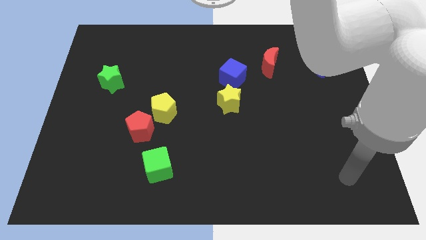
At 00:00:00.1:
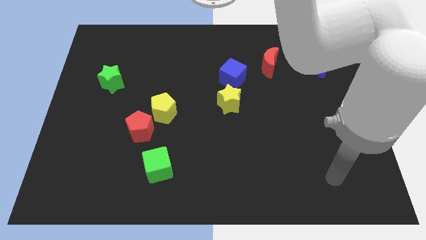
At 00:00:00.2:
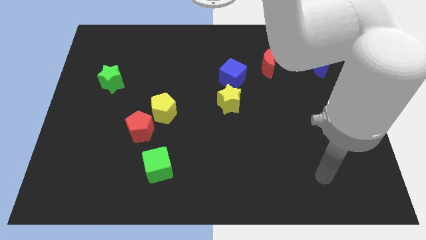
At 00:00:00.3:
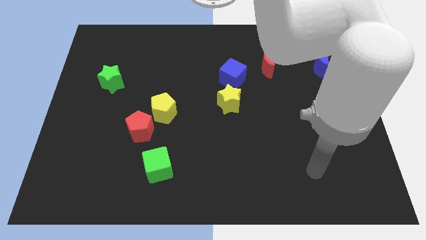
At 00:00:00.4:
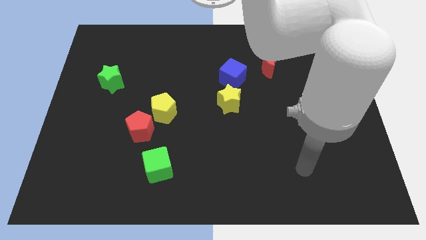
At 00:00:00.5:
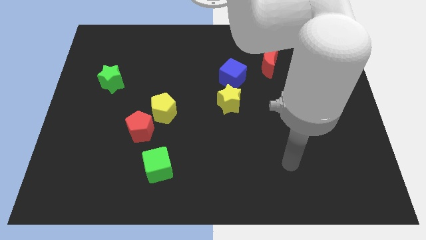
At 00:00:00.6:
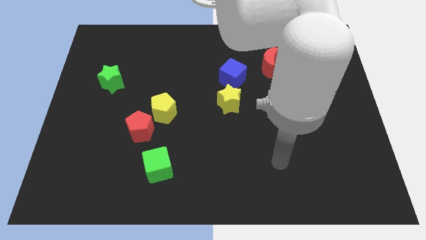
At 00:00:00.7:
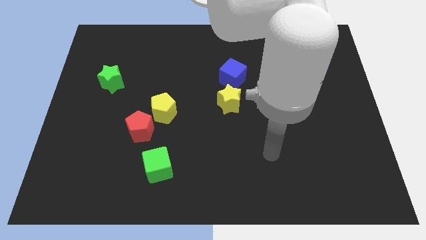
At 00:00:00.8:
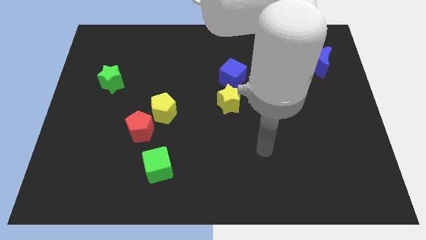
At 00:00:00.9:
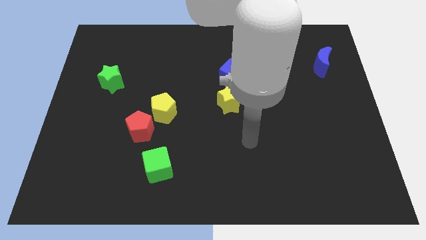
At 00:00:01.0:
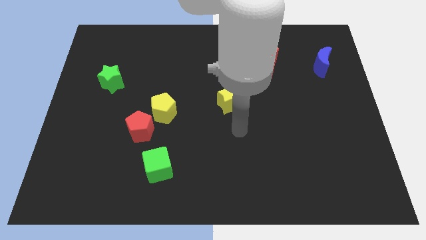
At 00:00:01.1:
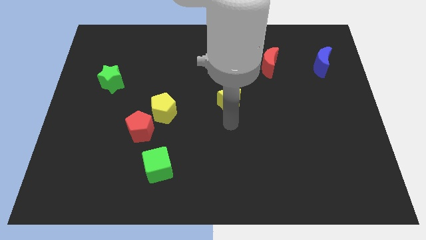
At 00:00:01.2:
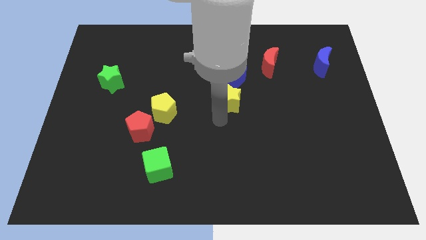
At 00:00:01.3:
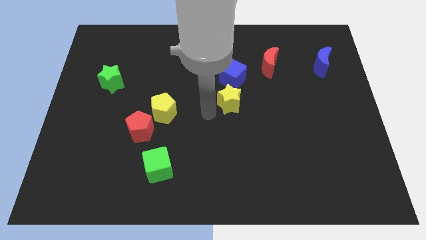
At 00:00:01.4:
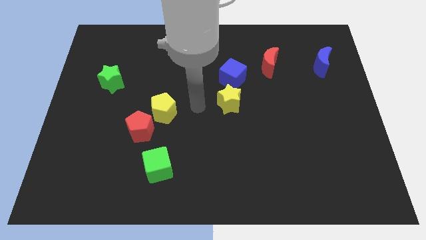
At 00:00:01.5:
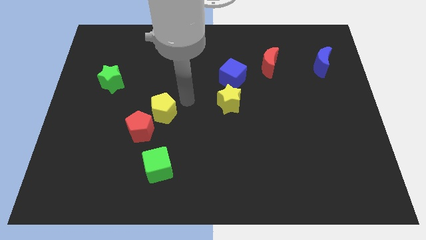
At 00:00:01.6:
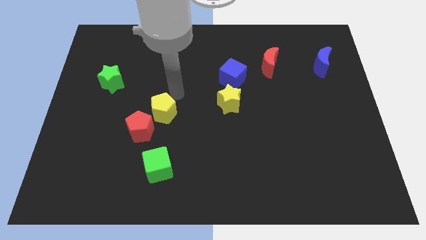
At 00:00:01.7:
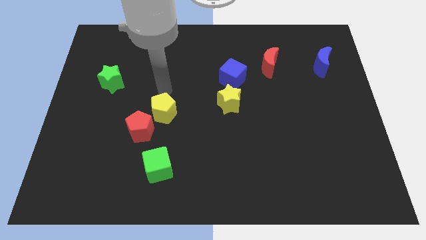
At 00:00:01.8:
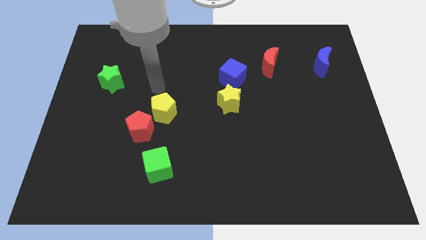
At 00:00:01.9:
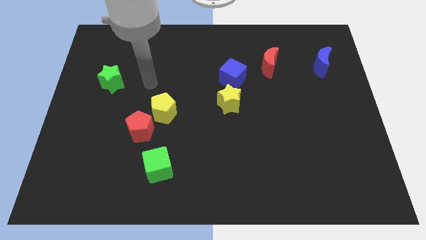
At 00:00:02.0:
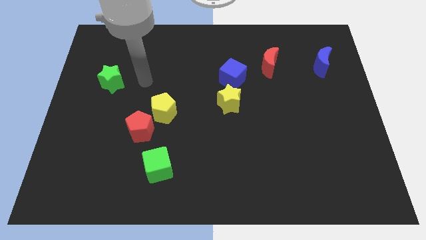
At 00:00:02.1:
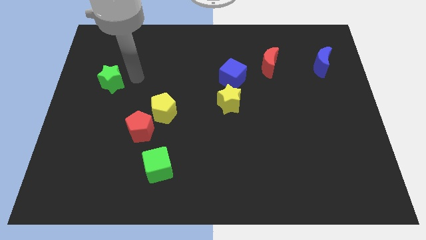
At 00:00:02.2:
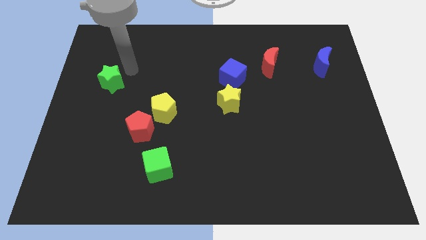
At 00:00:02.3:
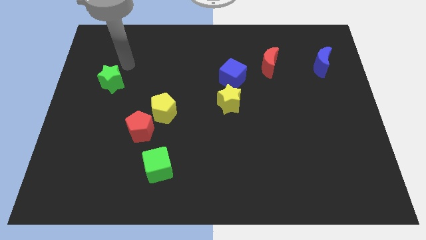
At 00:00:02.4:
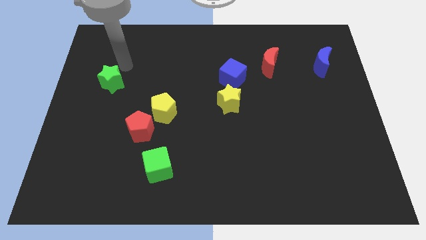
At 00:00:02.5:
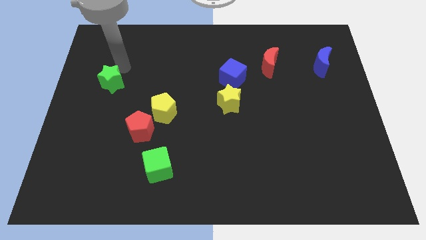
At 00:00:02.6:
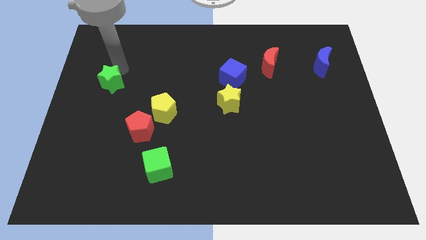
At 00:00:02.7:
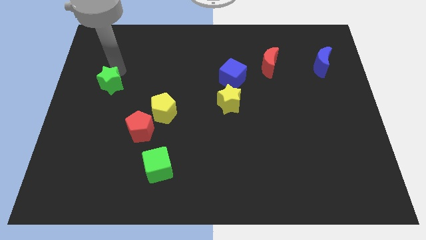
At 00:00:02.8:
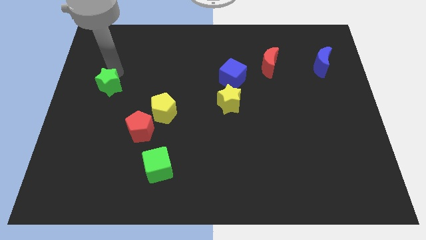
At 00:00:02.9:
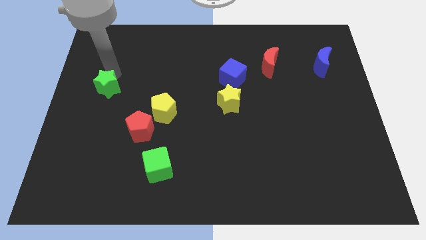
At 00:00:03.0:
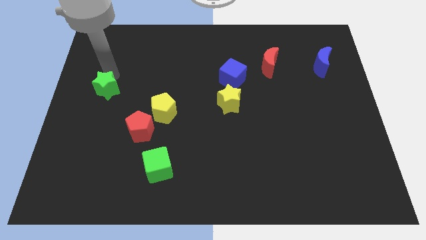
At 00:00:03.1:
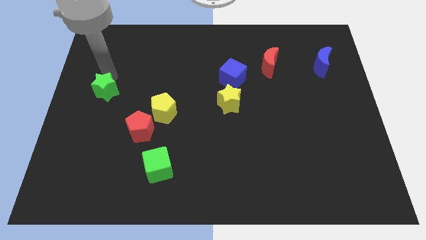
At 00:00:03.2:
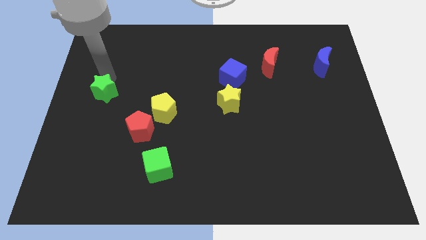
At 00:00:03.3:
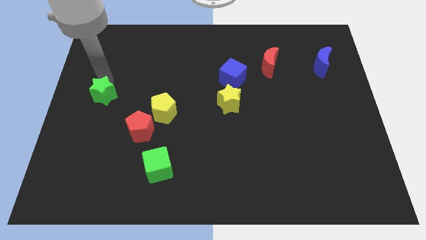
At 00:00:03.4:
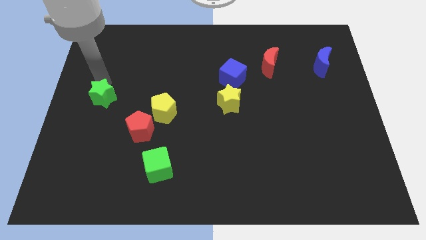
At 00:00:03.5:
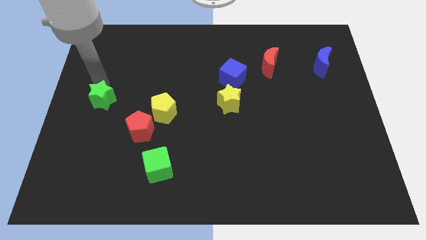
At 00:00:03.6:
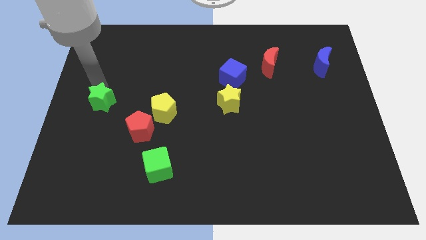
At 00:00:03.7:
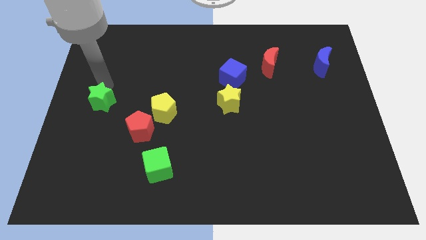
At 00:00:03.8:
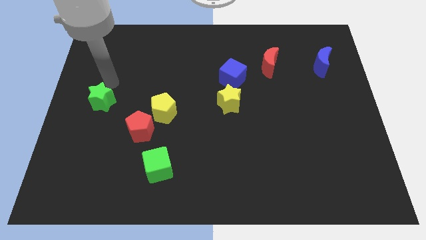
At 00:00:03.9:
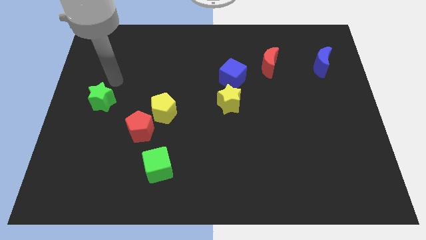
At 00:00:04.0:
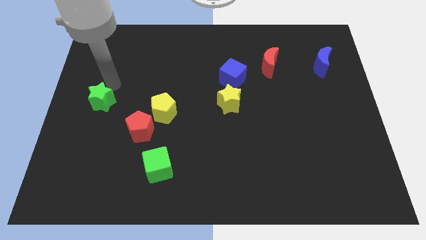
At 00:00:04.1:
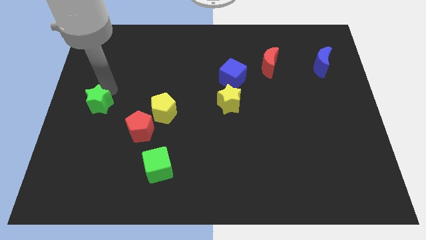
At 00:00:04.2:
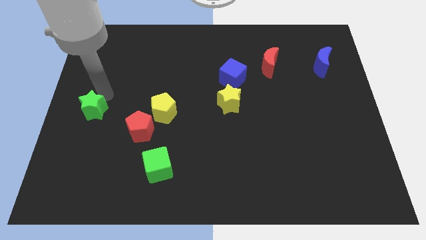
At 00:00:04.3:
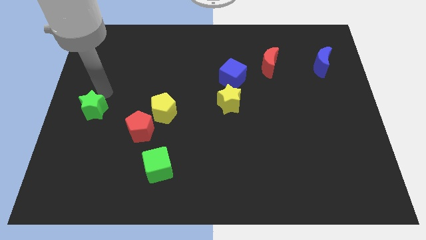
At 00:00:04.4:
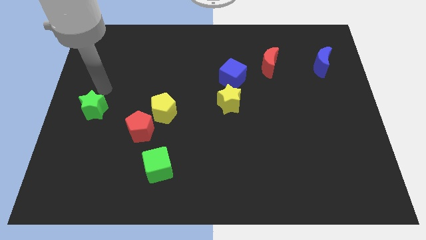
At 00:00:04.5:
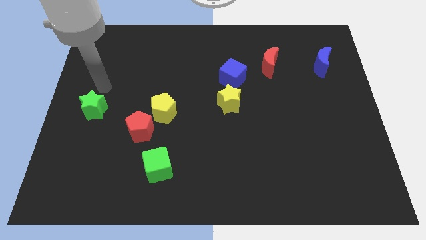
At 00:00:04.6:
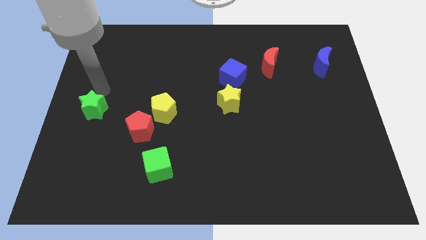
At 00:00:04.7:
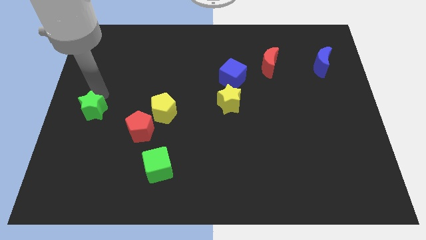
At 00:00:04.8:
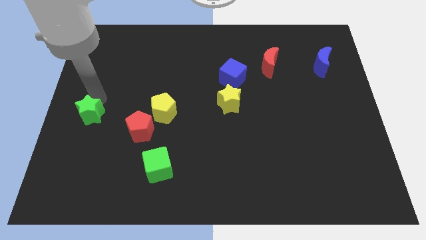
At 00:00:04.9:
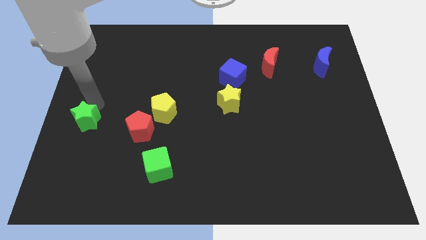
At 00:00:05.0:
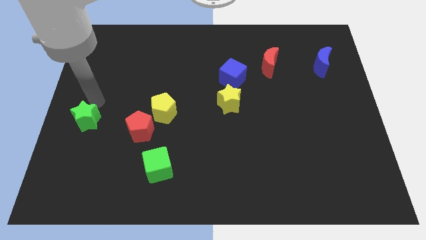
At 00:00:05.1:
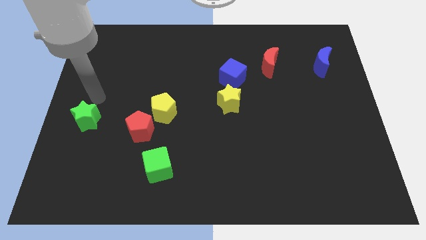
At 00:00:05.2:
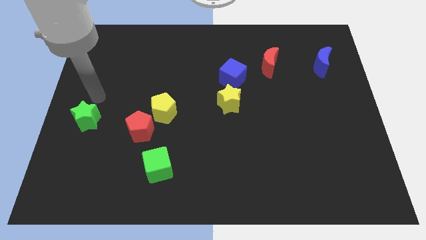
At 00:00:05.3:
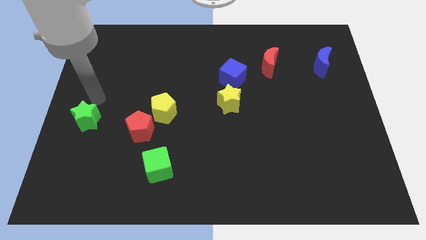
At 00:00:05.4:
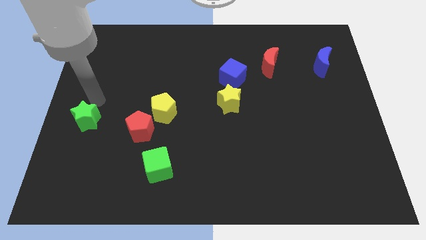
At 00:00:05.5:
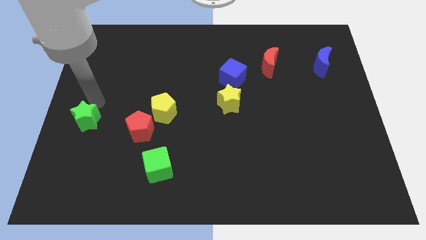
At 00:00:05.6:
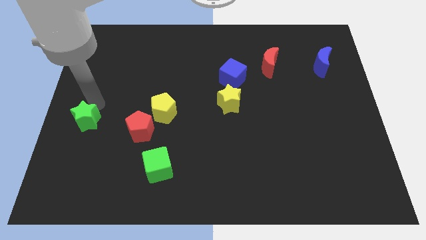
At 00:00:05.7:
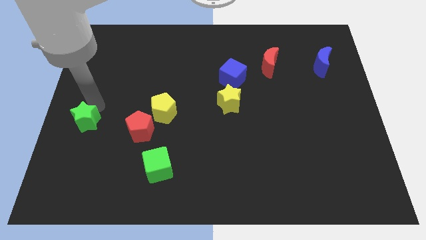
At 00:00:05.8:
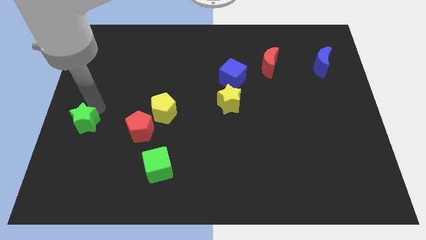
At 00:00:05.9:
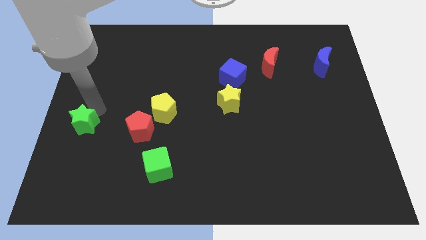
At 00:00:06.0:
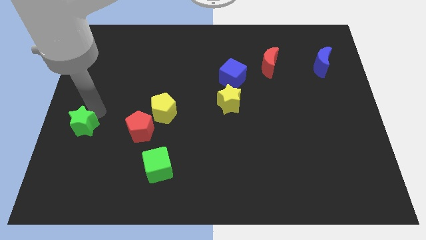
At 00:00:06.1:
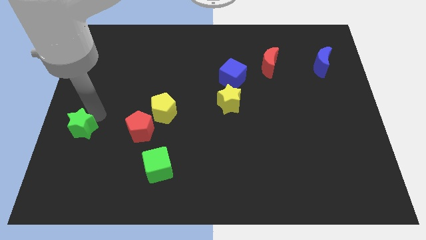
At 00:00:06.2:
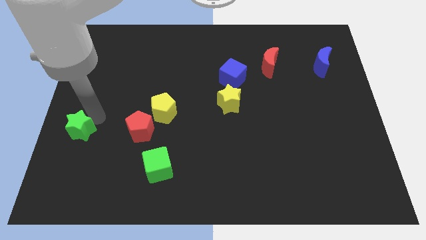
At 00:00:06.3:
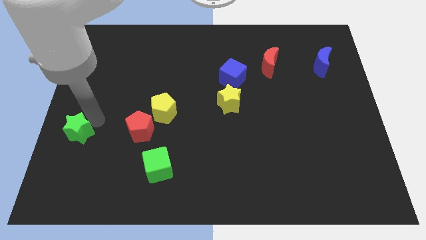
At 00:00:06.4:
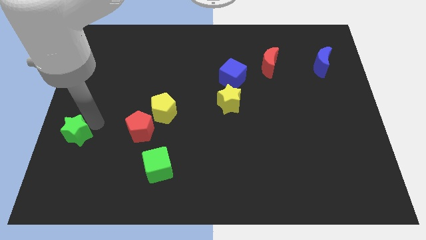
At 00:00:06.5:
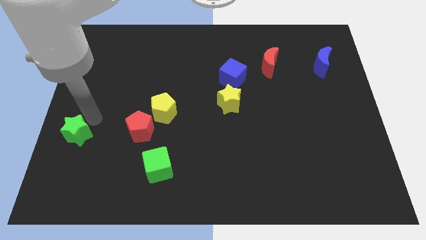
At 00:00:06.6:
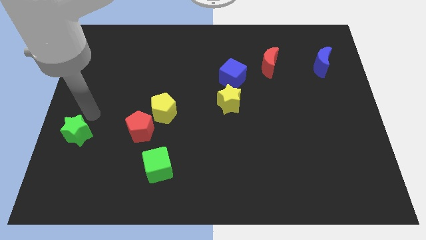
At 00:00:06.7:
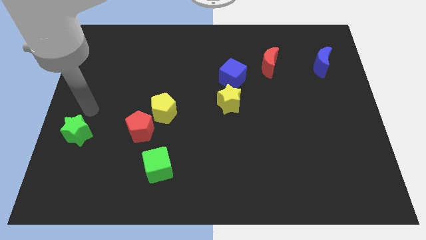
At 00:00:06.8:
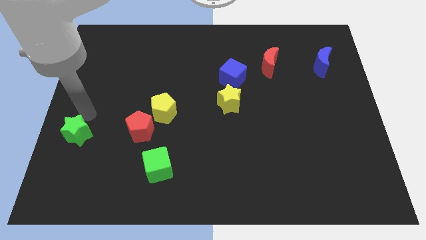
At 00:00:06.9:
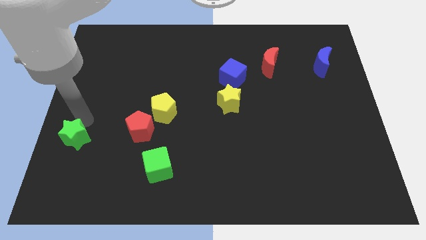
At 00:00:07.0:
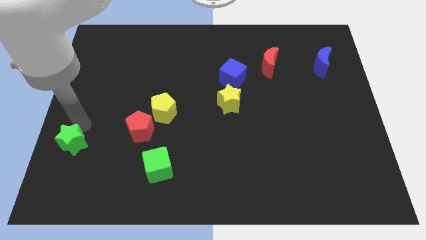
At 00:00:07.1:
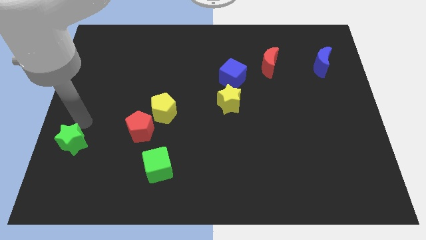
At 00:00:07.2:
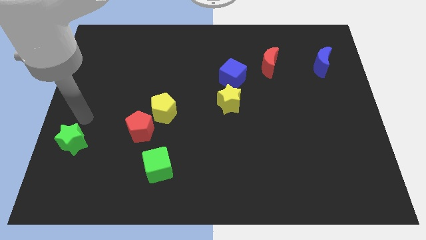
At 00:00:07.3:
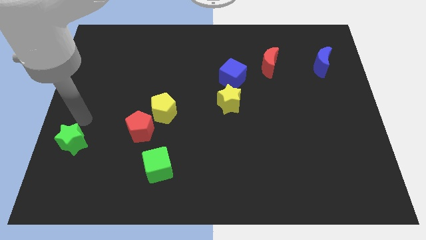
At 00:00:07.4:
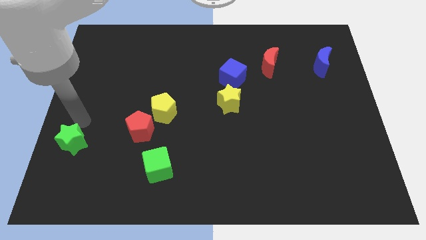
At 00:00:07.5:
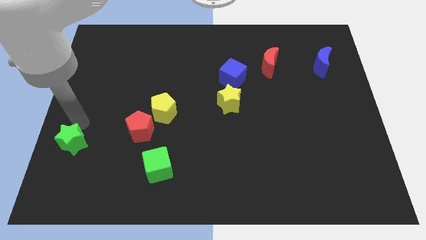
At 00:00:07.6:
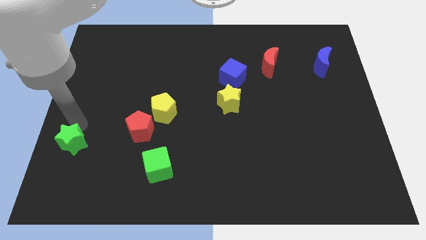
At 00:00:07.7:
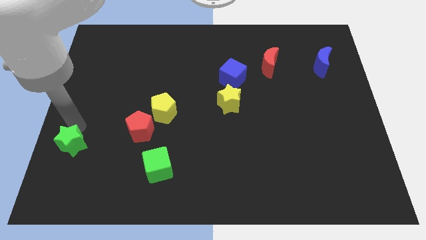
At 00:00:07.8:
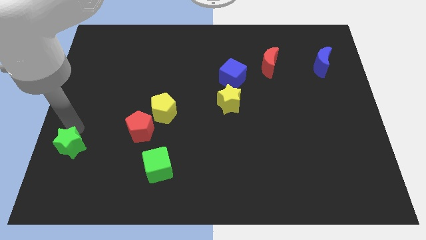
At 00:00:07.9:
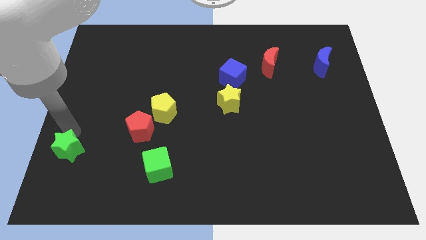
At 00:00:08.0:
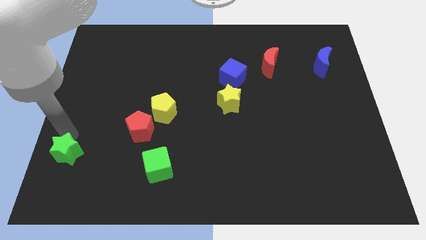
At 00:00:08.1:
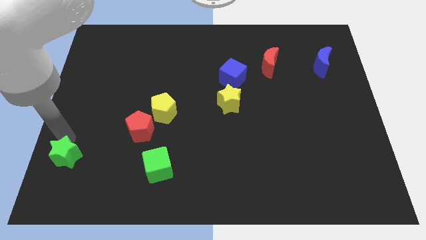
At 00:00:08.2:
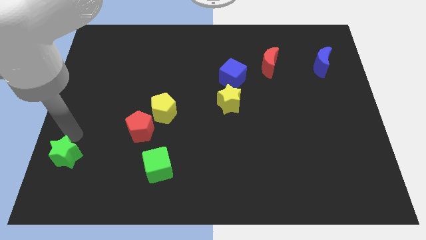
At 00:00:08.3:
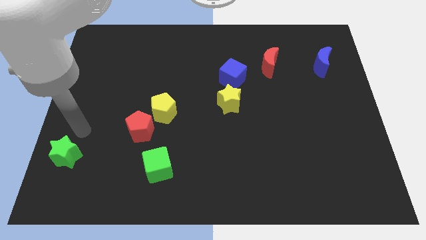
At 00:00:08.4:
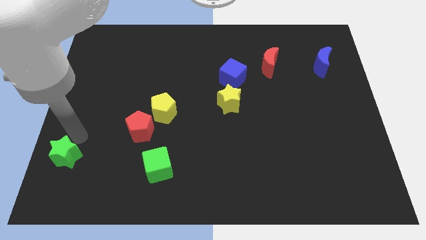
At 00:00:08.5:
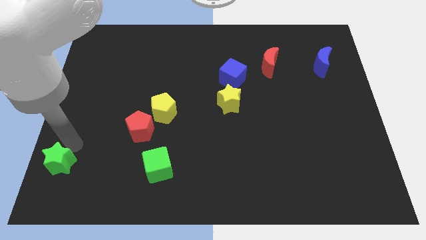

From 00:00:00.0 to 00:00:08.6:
push the green star to the bottom left
